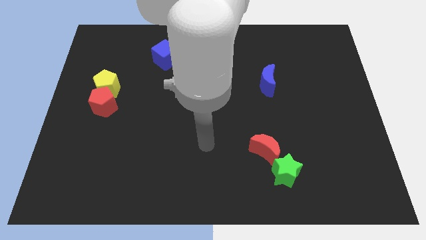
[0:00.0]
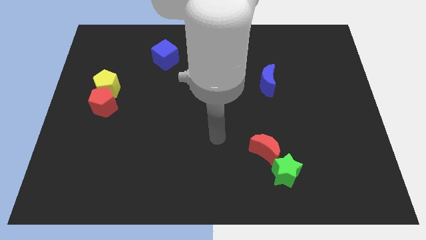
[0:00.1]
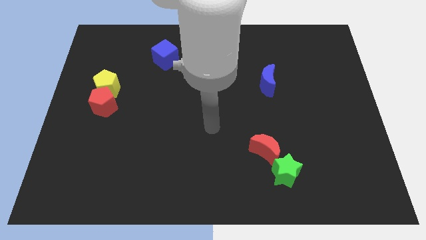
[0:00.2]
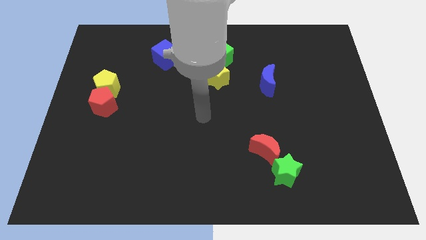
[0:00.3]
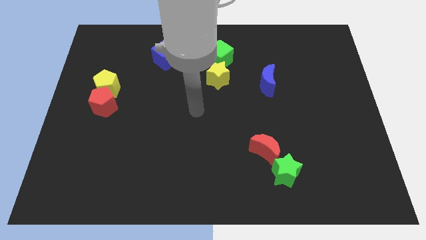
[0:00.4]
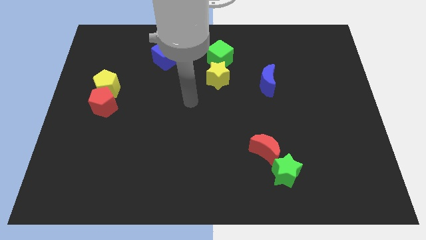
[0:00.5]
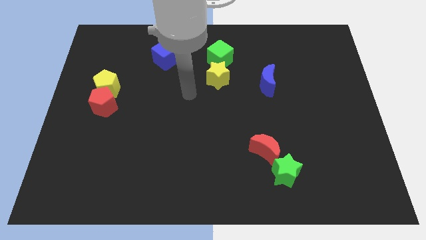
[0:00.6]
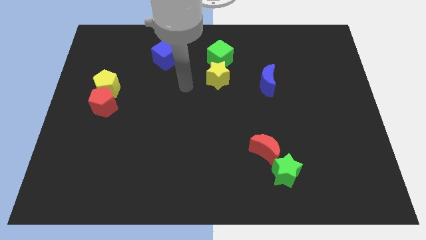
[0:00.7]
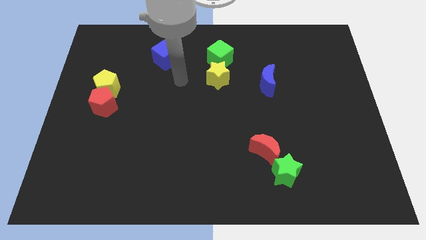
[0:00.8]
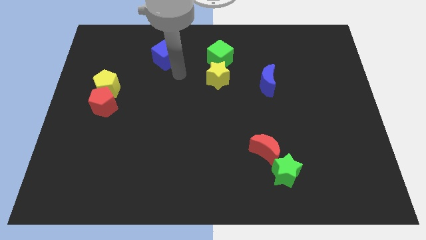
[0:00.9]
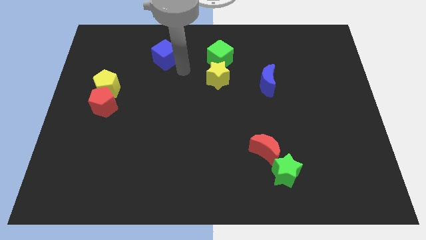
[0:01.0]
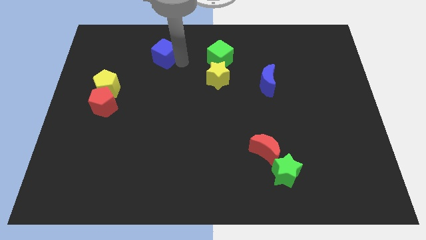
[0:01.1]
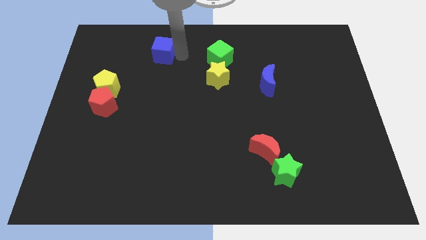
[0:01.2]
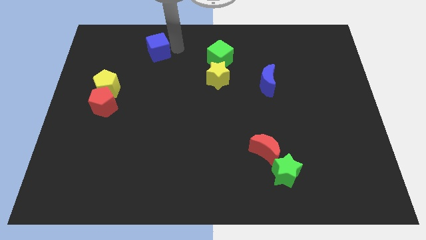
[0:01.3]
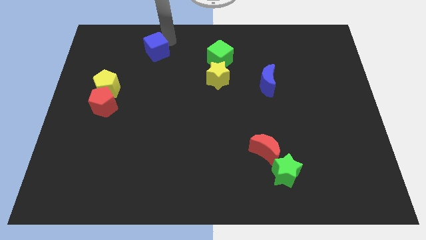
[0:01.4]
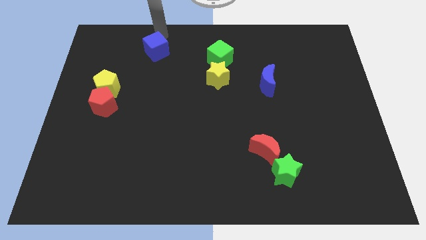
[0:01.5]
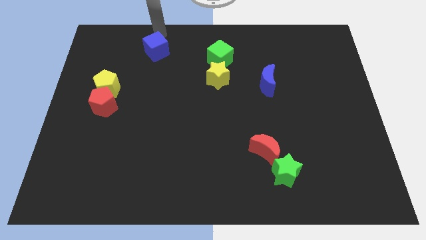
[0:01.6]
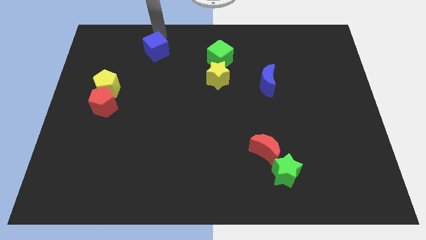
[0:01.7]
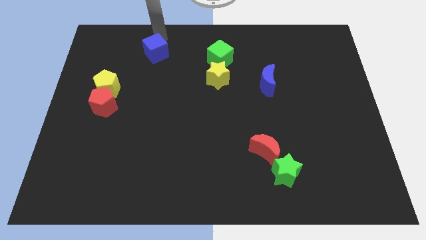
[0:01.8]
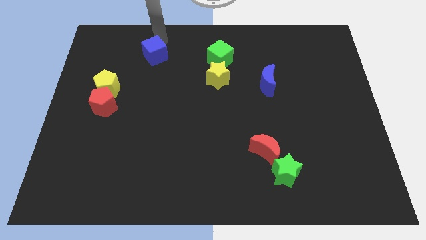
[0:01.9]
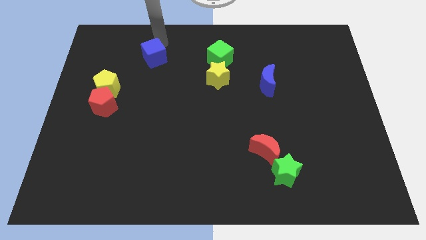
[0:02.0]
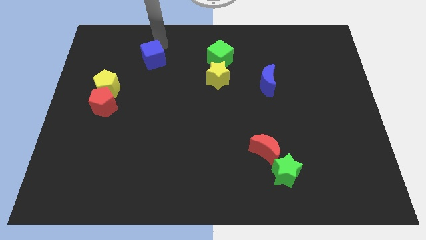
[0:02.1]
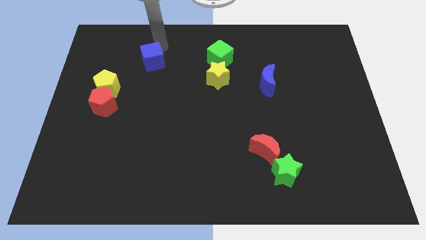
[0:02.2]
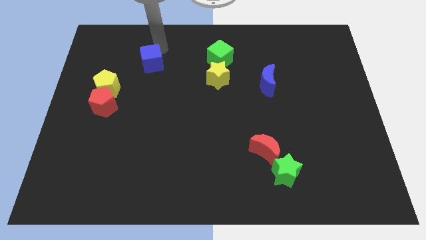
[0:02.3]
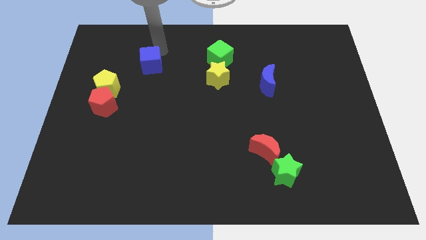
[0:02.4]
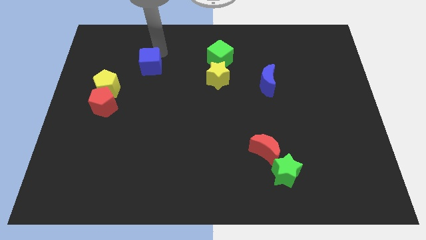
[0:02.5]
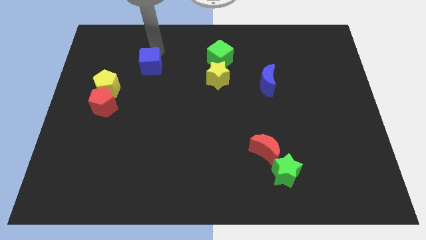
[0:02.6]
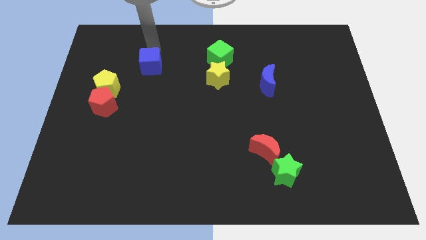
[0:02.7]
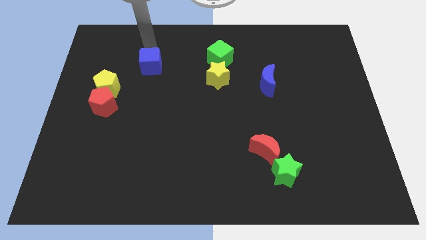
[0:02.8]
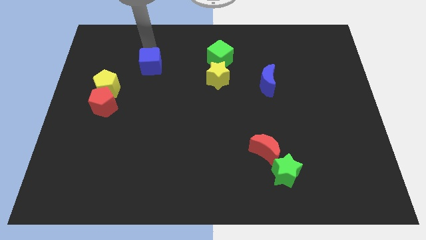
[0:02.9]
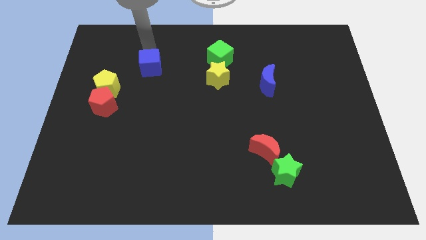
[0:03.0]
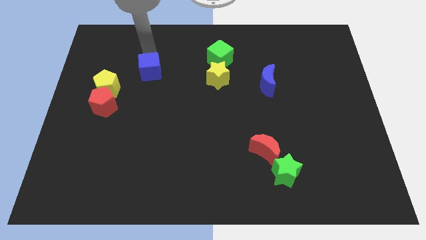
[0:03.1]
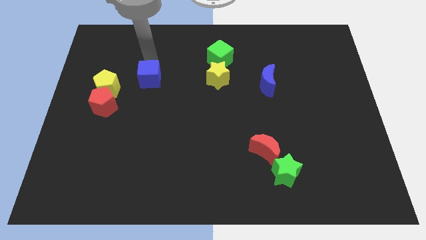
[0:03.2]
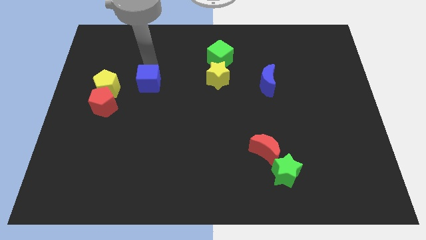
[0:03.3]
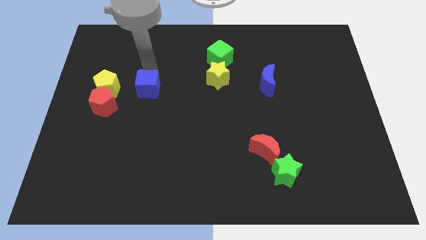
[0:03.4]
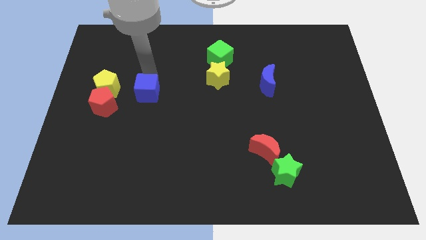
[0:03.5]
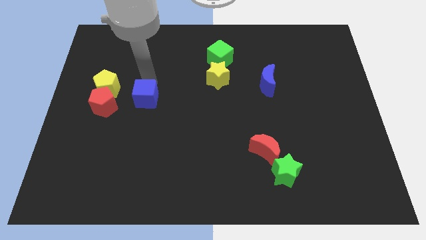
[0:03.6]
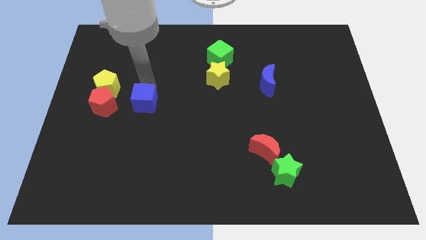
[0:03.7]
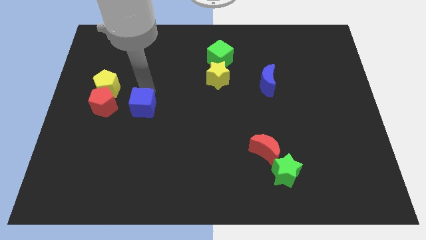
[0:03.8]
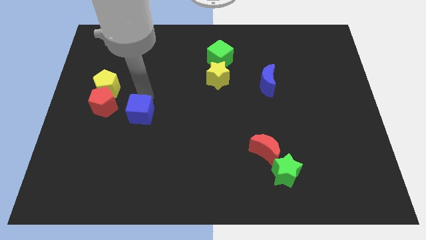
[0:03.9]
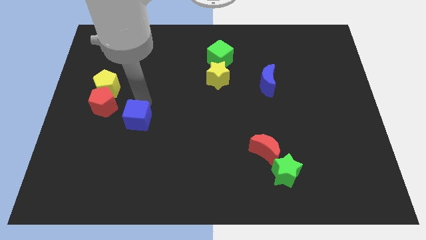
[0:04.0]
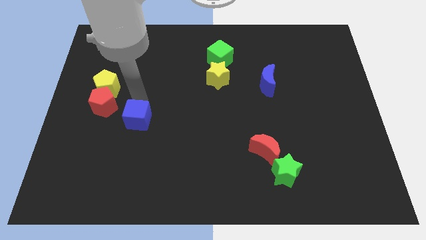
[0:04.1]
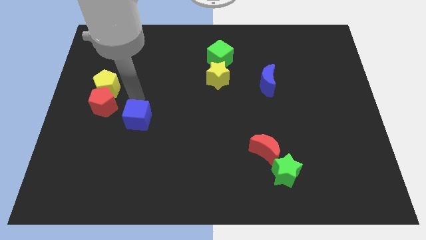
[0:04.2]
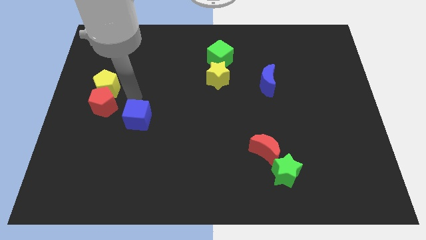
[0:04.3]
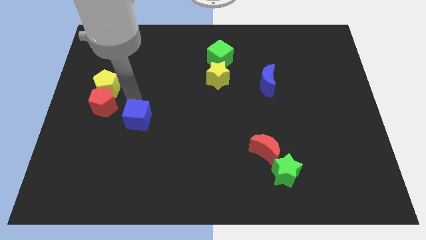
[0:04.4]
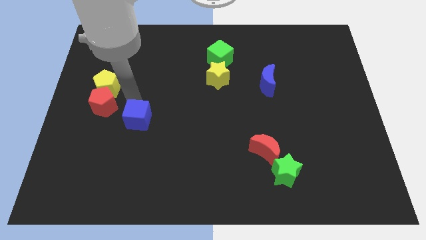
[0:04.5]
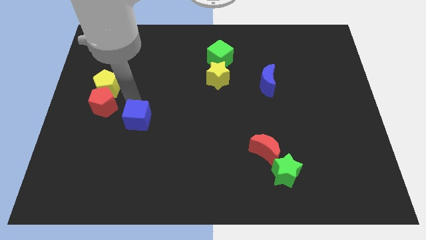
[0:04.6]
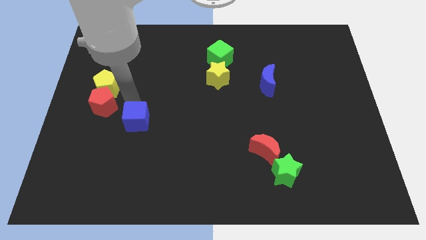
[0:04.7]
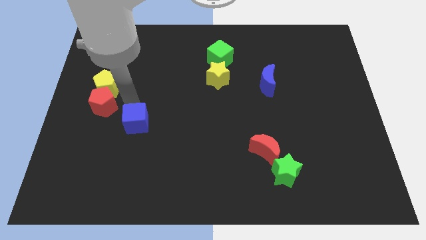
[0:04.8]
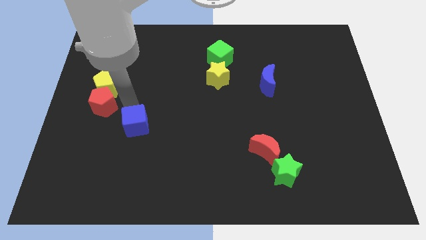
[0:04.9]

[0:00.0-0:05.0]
slide the blue cube down

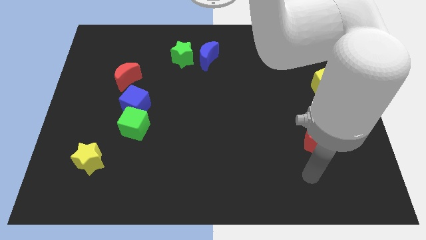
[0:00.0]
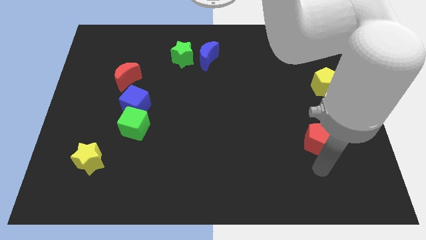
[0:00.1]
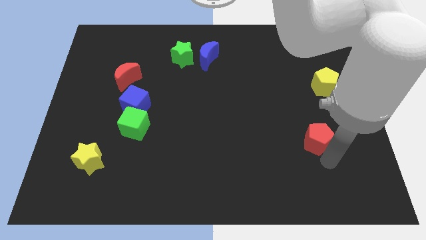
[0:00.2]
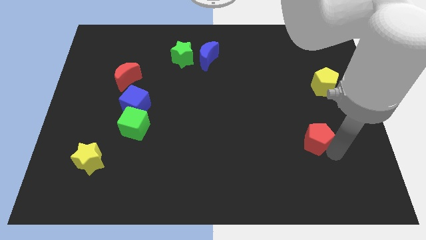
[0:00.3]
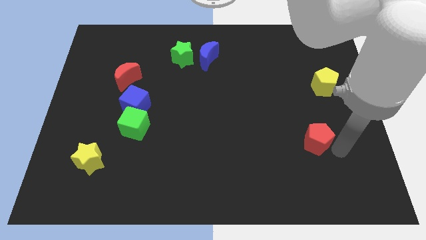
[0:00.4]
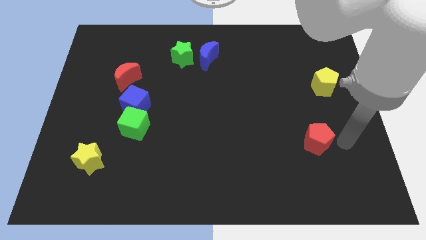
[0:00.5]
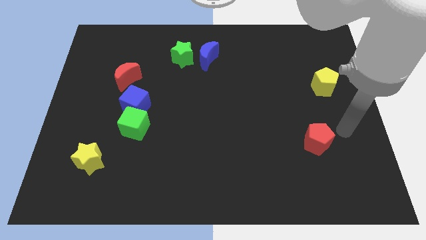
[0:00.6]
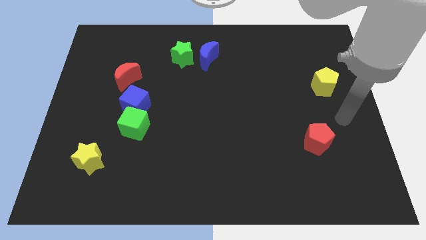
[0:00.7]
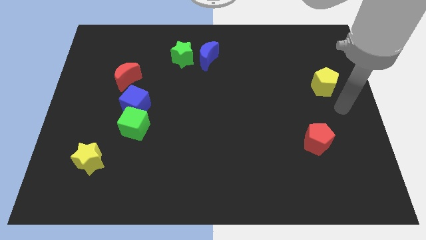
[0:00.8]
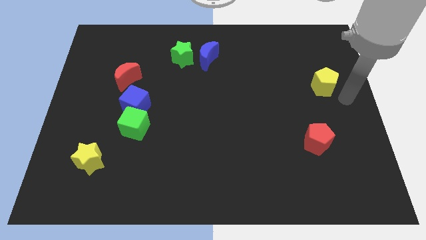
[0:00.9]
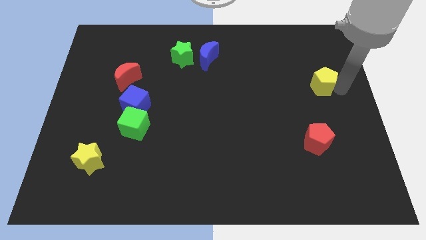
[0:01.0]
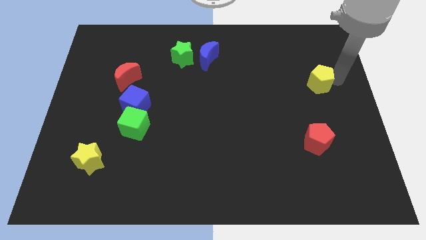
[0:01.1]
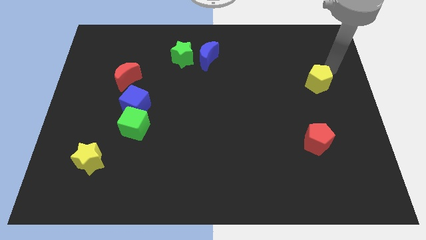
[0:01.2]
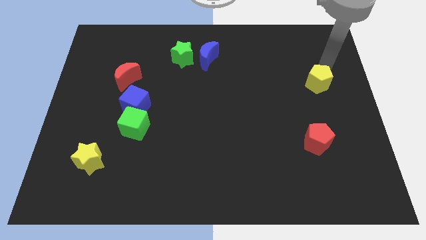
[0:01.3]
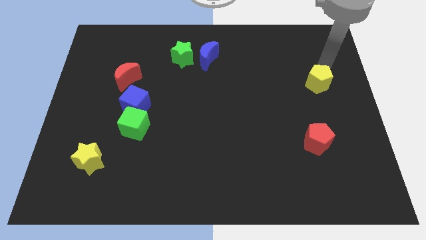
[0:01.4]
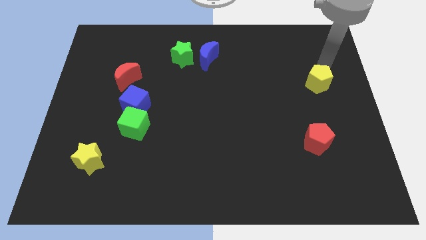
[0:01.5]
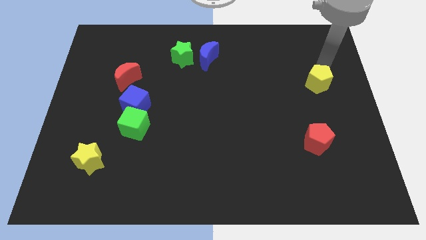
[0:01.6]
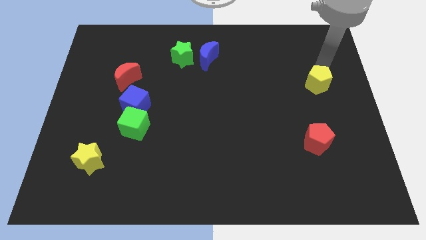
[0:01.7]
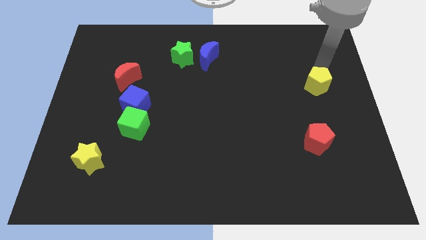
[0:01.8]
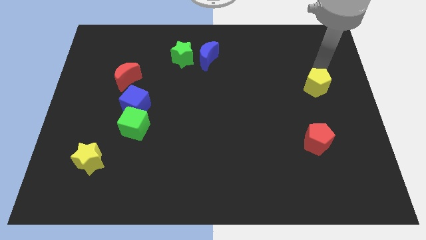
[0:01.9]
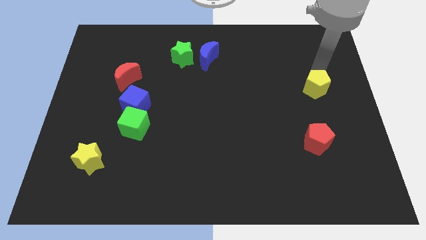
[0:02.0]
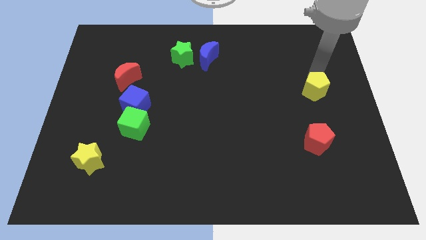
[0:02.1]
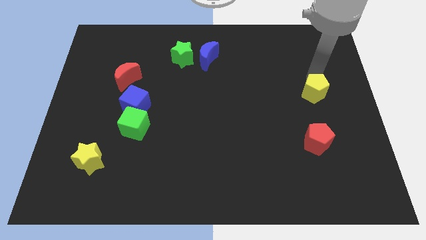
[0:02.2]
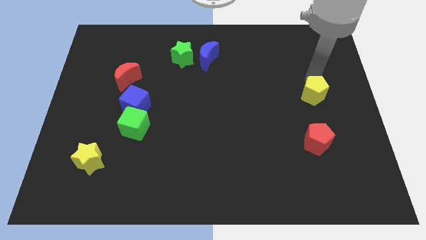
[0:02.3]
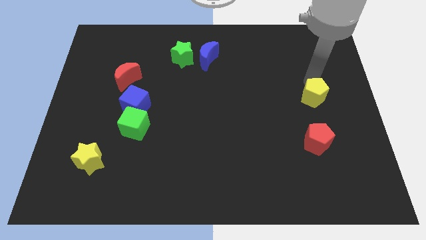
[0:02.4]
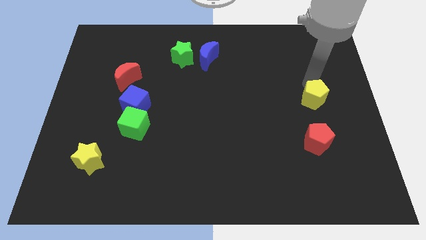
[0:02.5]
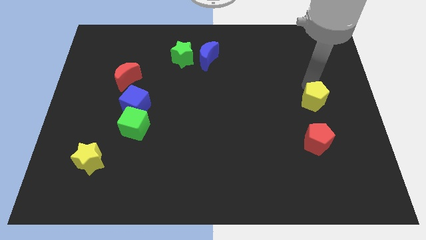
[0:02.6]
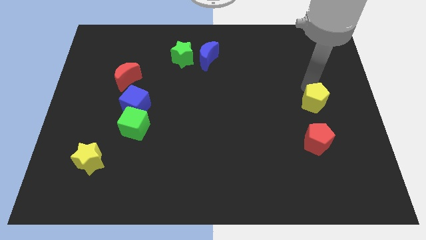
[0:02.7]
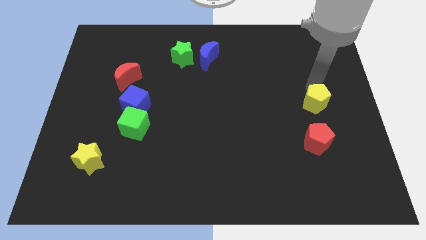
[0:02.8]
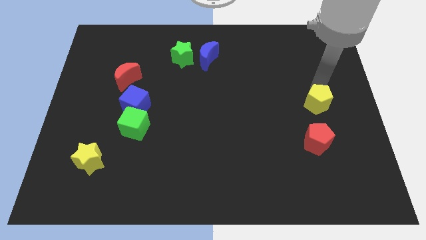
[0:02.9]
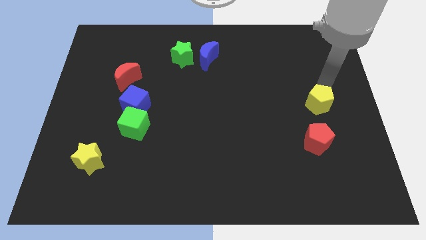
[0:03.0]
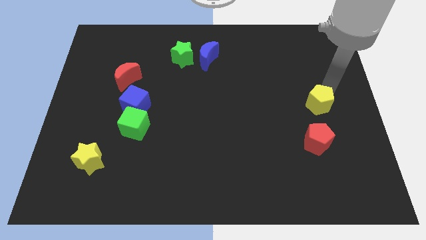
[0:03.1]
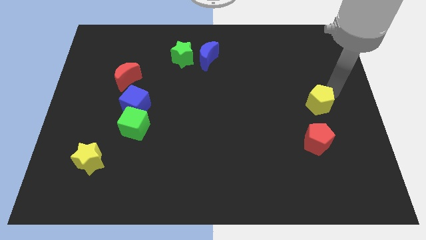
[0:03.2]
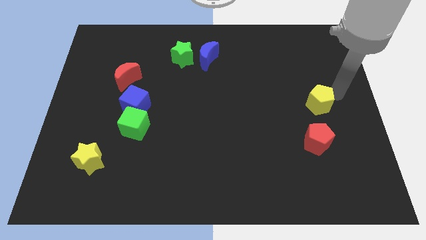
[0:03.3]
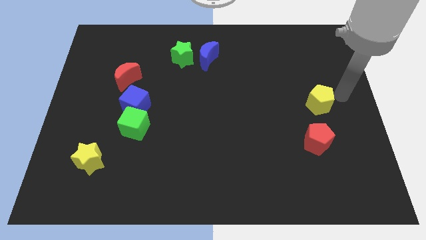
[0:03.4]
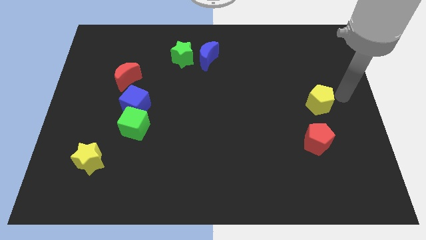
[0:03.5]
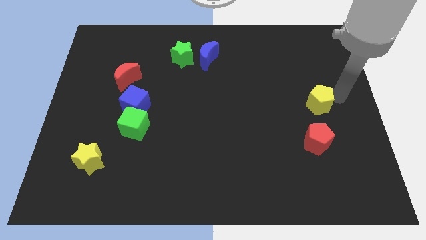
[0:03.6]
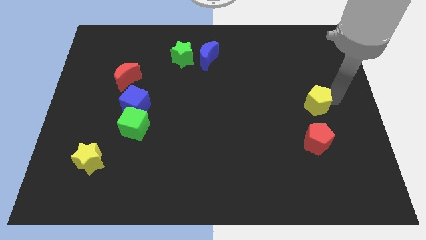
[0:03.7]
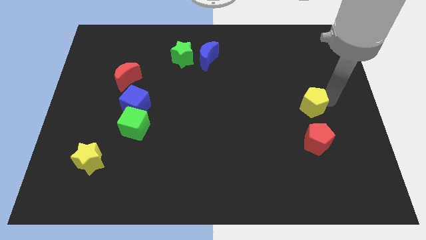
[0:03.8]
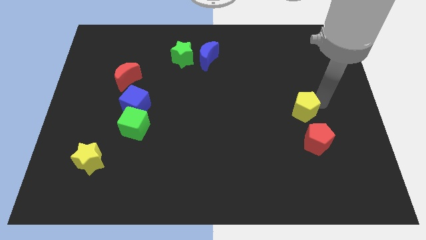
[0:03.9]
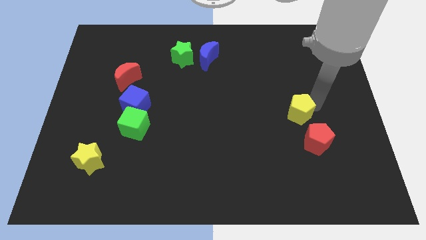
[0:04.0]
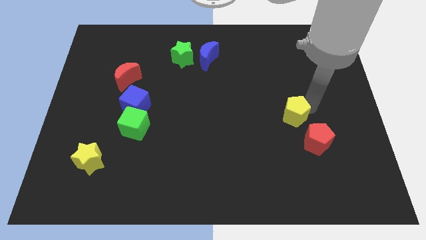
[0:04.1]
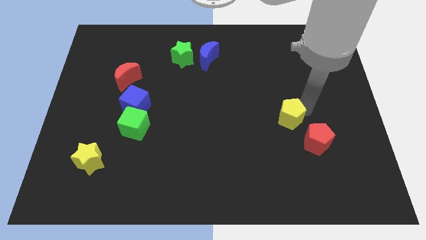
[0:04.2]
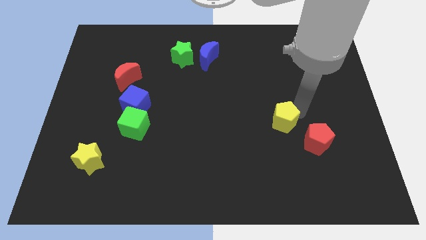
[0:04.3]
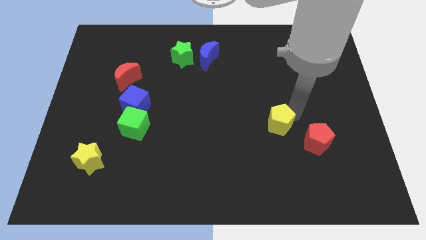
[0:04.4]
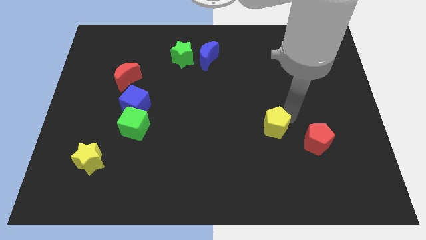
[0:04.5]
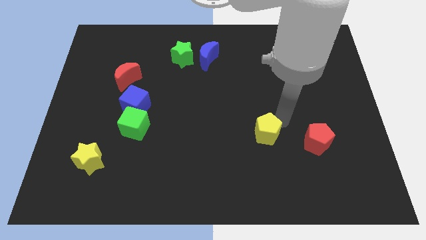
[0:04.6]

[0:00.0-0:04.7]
move the yellow pentagon down and then to the left
